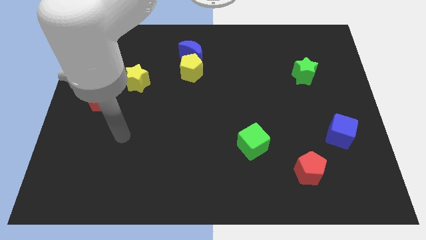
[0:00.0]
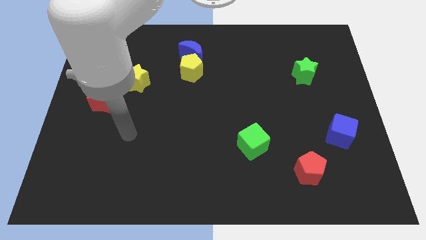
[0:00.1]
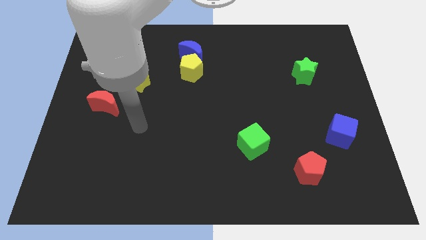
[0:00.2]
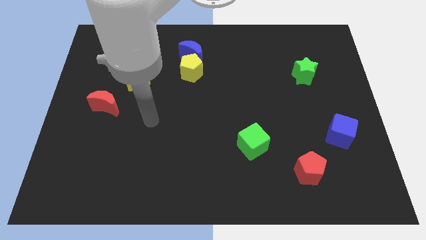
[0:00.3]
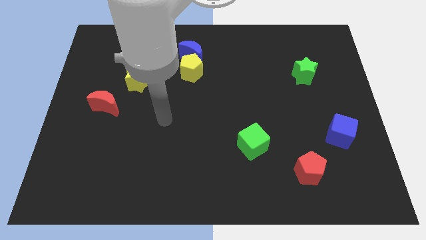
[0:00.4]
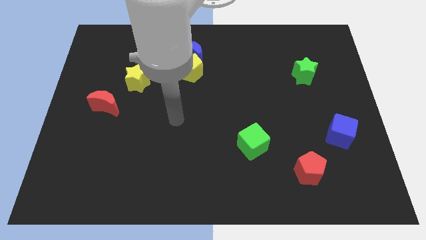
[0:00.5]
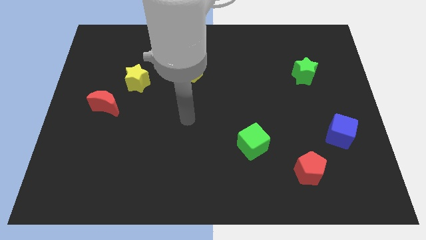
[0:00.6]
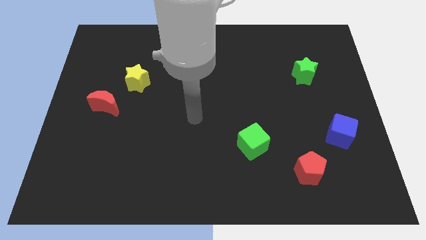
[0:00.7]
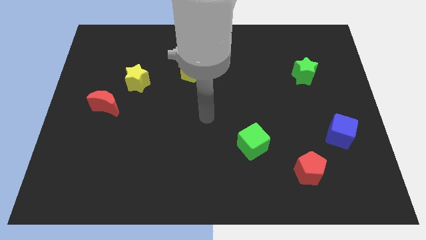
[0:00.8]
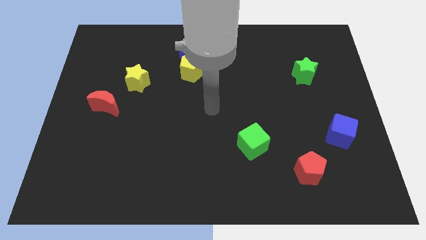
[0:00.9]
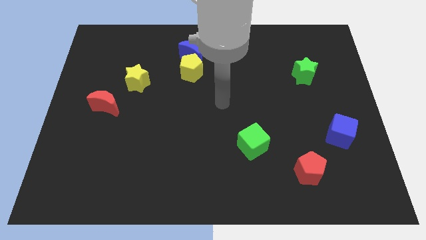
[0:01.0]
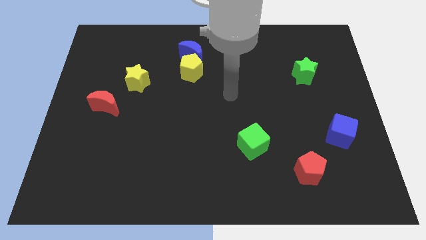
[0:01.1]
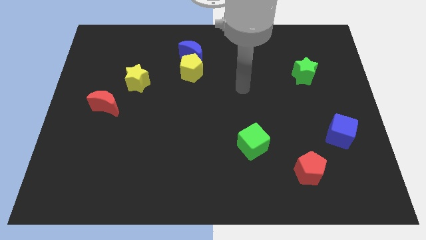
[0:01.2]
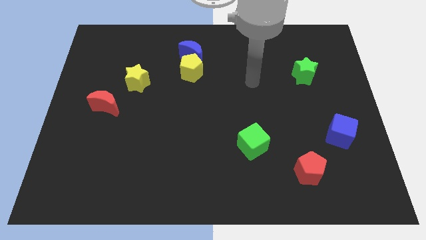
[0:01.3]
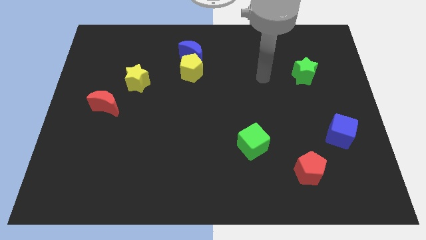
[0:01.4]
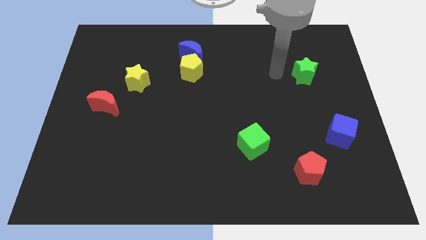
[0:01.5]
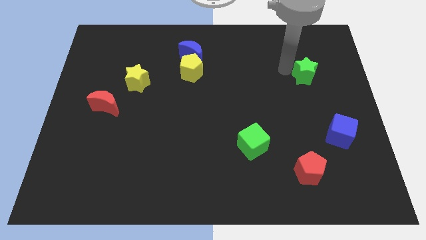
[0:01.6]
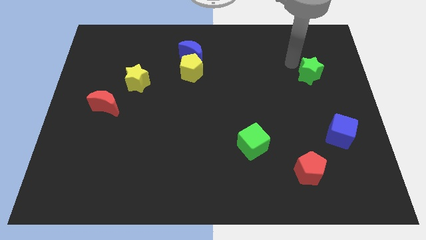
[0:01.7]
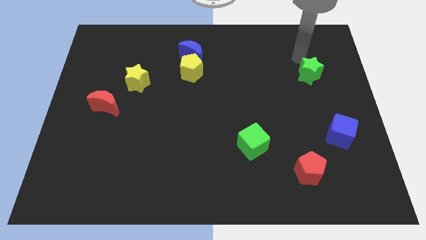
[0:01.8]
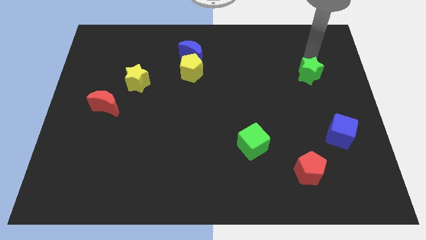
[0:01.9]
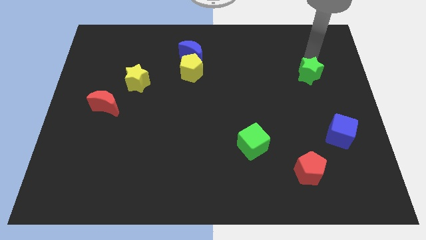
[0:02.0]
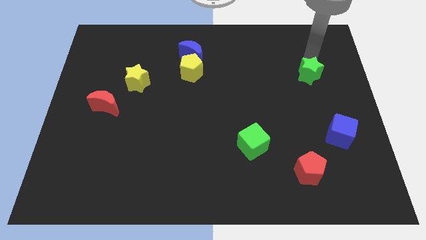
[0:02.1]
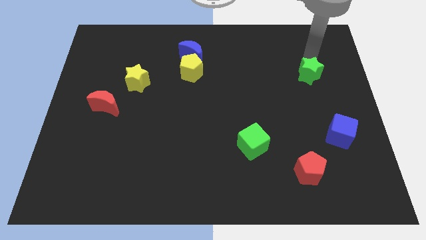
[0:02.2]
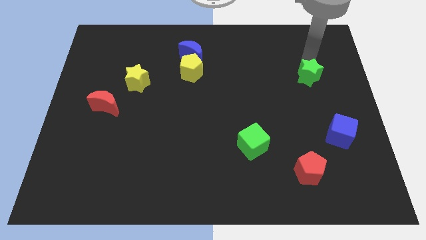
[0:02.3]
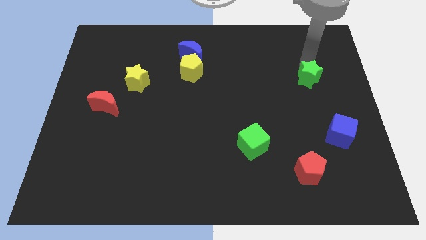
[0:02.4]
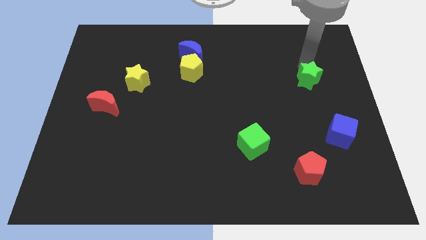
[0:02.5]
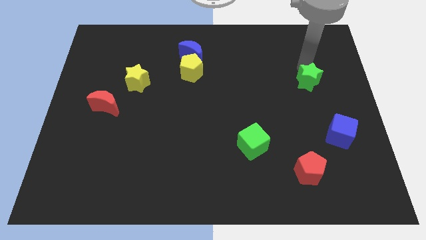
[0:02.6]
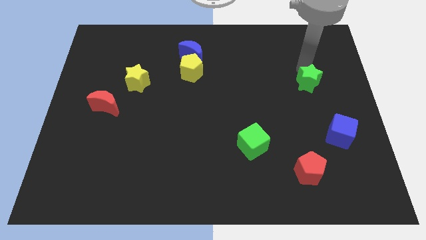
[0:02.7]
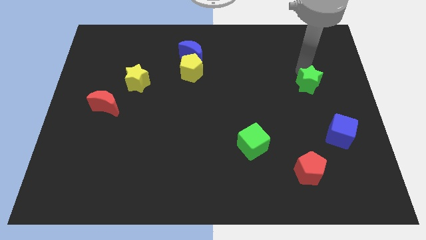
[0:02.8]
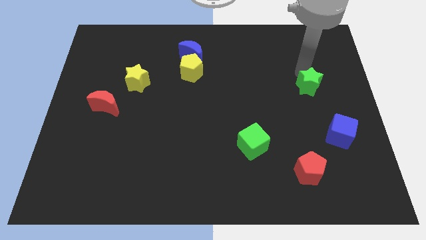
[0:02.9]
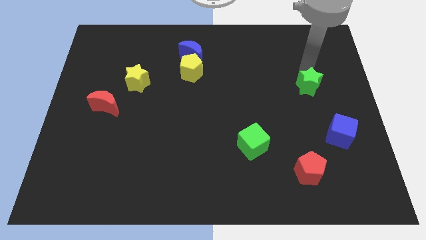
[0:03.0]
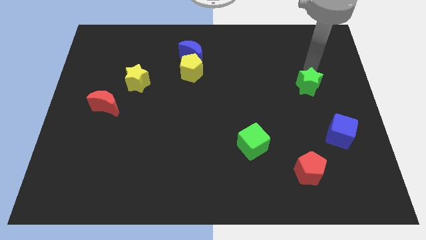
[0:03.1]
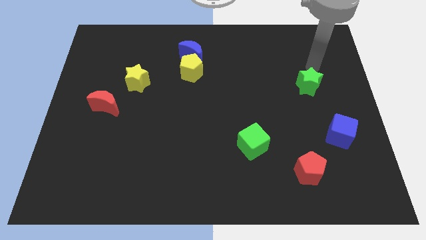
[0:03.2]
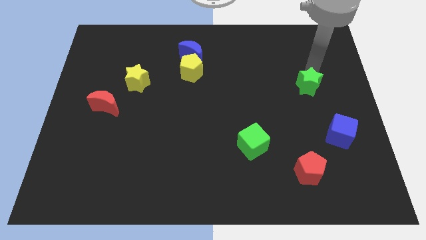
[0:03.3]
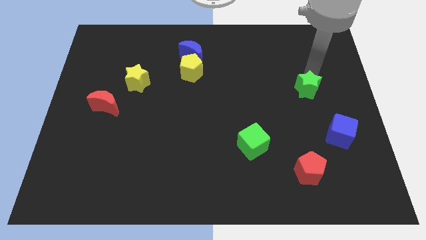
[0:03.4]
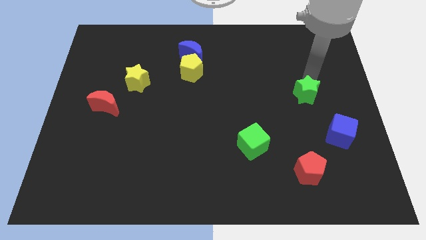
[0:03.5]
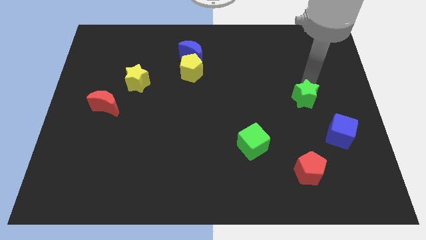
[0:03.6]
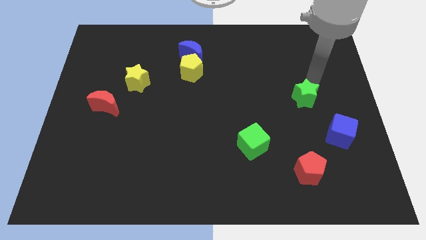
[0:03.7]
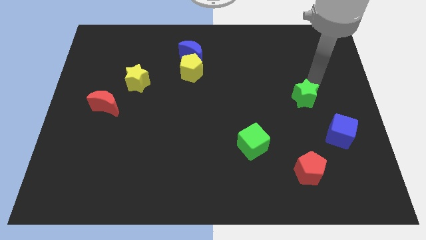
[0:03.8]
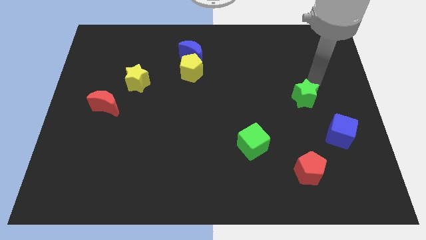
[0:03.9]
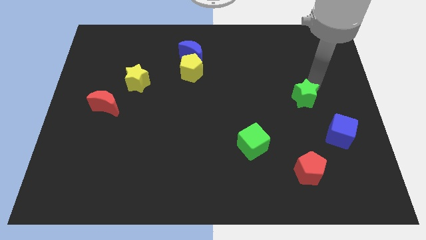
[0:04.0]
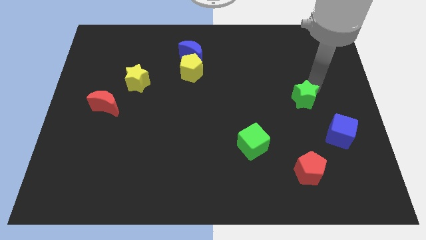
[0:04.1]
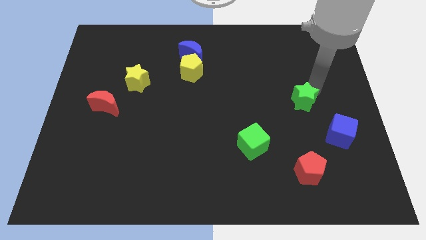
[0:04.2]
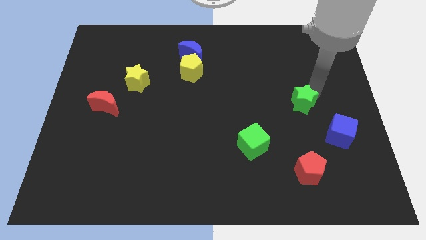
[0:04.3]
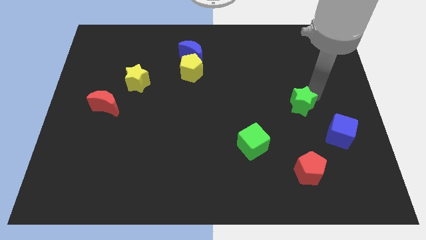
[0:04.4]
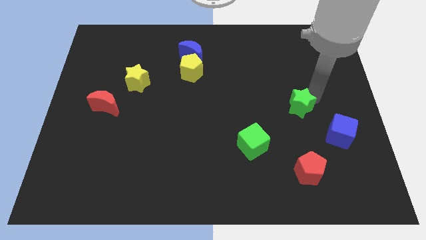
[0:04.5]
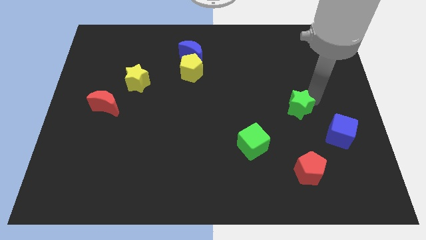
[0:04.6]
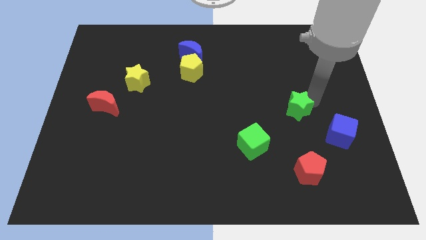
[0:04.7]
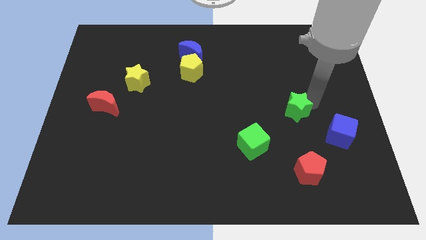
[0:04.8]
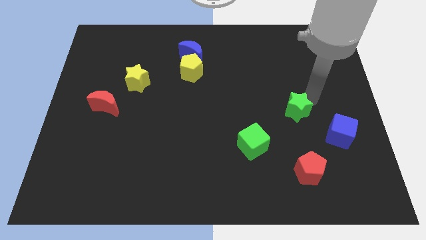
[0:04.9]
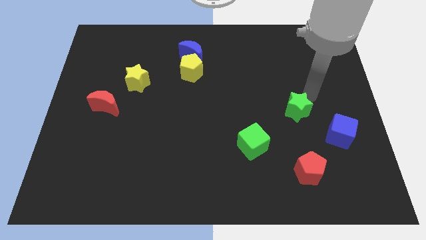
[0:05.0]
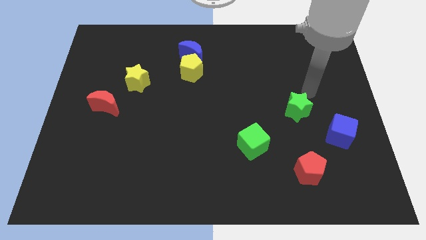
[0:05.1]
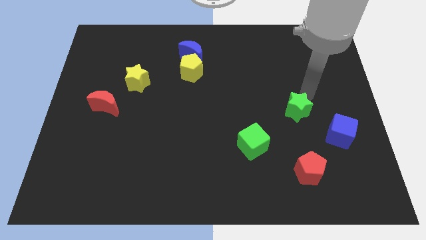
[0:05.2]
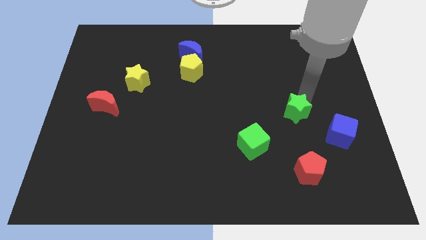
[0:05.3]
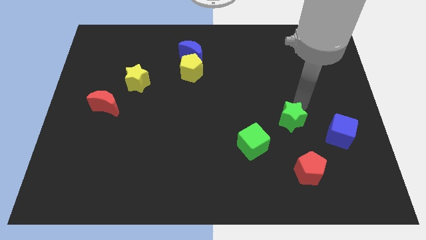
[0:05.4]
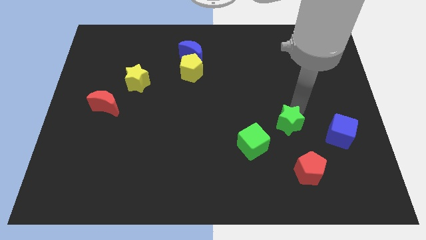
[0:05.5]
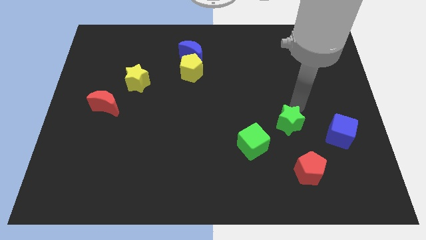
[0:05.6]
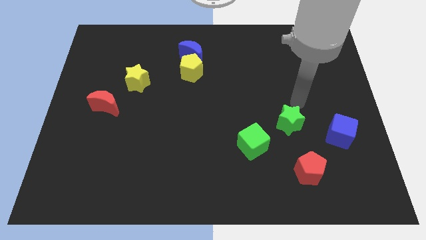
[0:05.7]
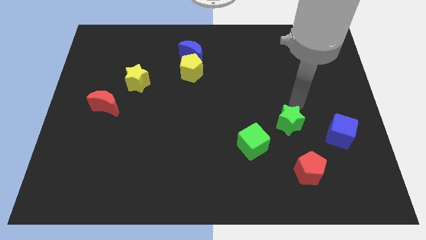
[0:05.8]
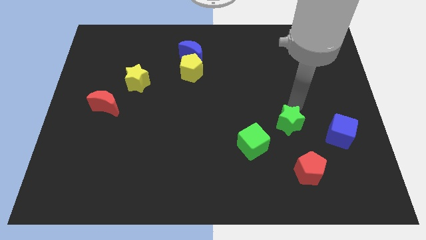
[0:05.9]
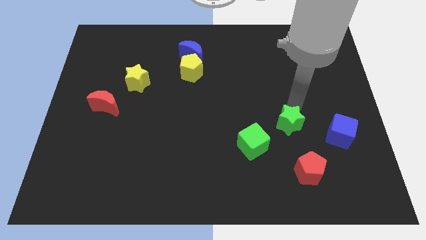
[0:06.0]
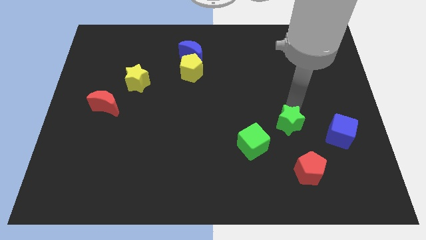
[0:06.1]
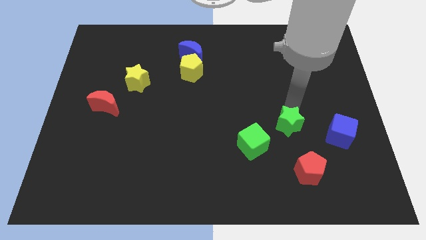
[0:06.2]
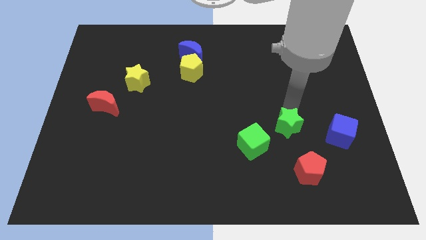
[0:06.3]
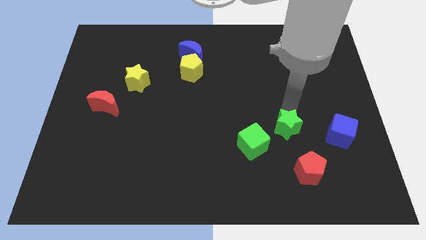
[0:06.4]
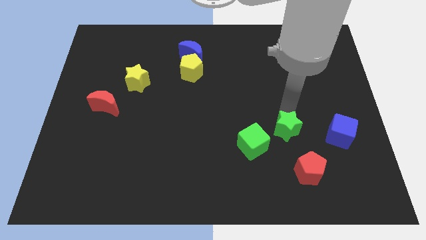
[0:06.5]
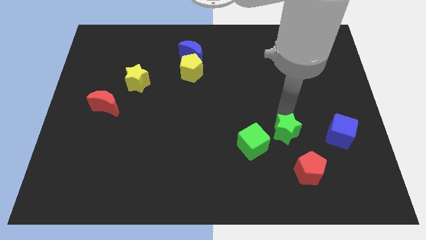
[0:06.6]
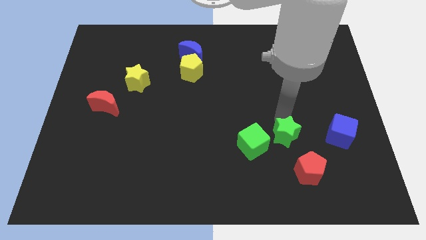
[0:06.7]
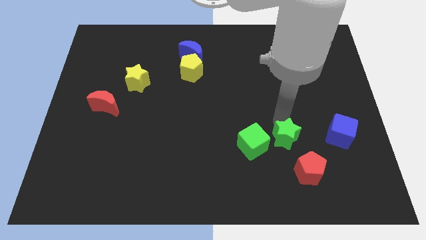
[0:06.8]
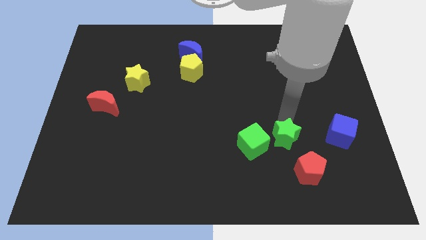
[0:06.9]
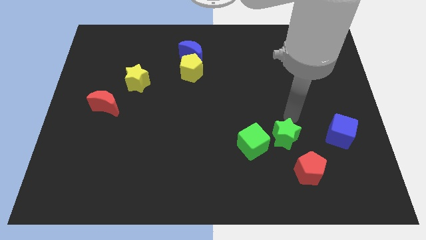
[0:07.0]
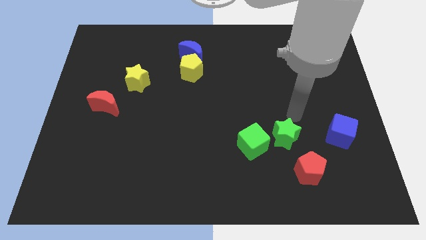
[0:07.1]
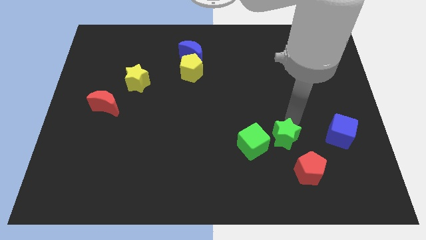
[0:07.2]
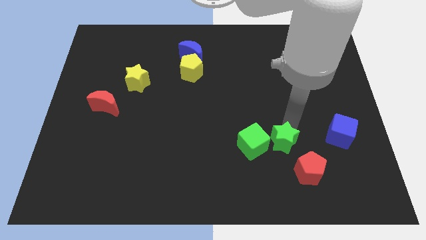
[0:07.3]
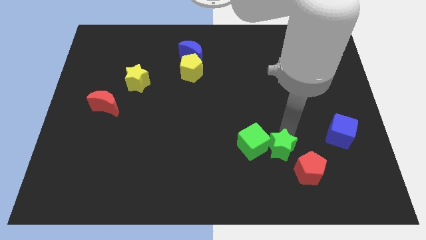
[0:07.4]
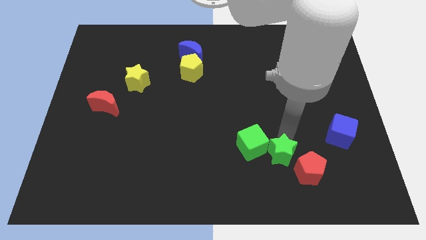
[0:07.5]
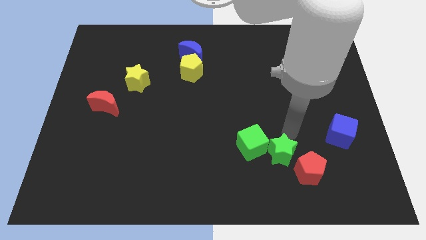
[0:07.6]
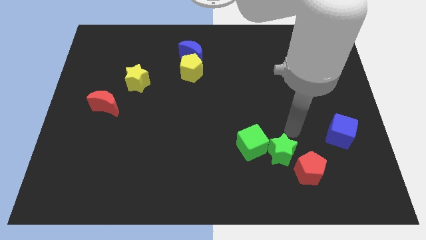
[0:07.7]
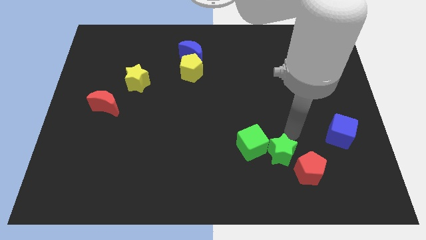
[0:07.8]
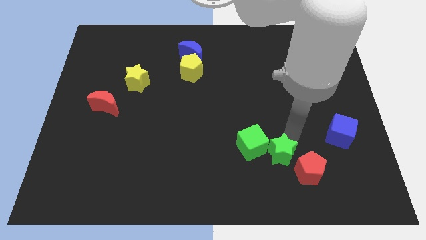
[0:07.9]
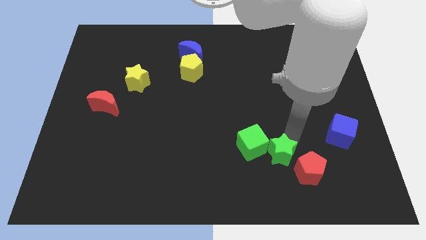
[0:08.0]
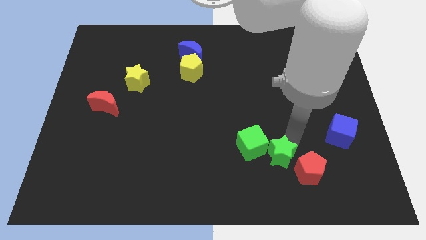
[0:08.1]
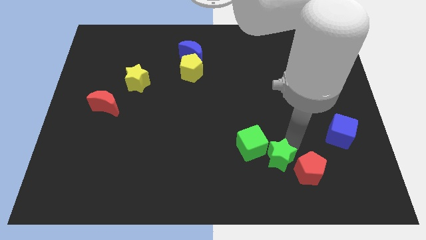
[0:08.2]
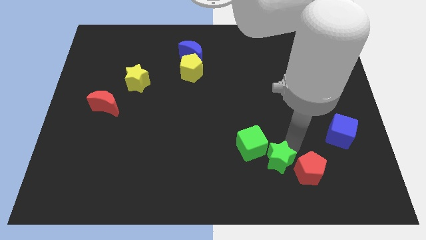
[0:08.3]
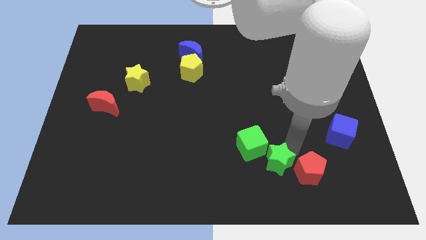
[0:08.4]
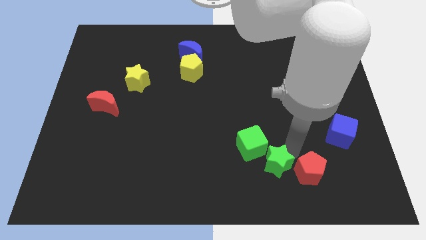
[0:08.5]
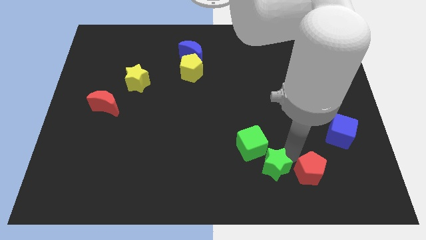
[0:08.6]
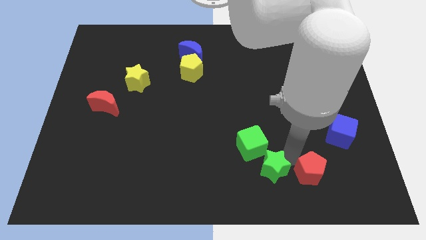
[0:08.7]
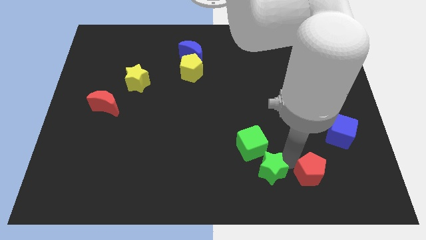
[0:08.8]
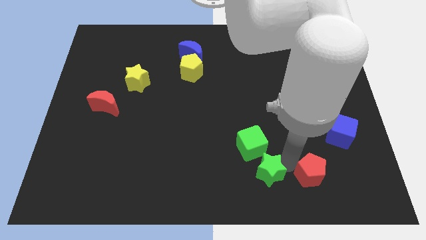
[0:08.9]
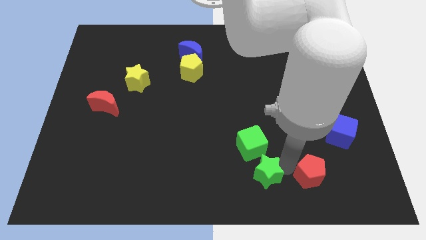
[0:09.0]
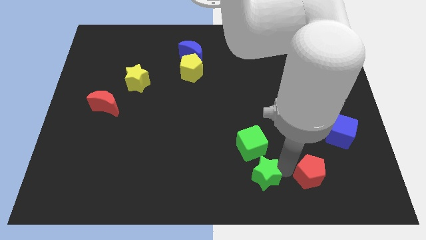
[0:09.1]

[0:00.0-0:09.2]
put the green star to the bottom side
